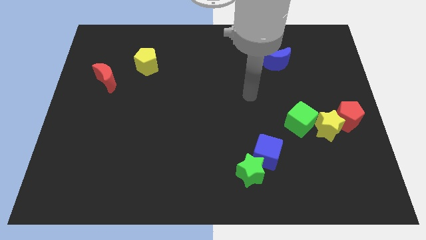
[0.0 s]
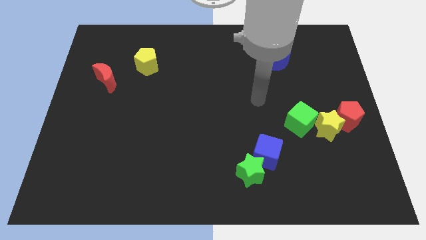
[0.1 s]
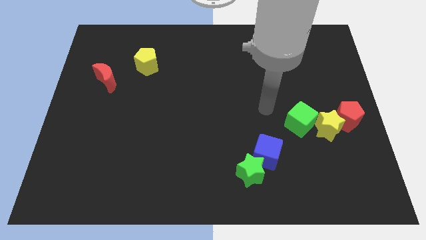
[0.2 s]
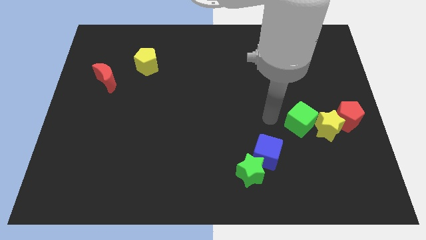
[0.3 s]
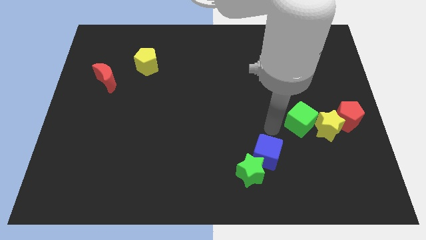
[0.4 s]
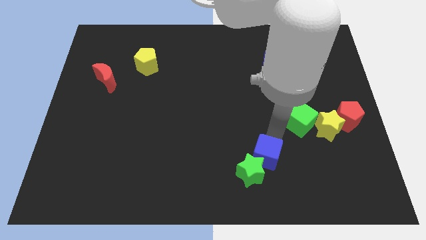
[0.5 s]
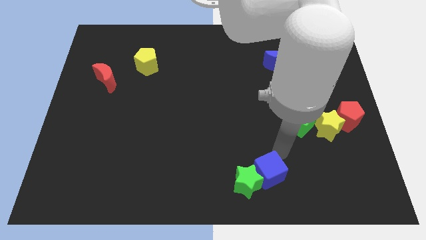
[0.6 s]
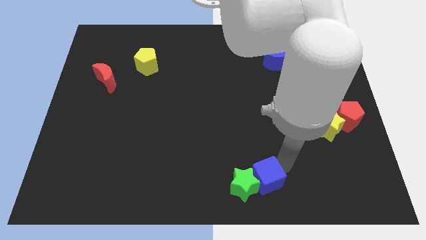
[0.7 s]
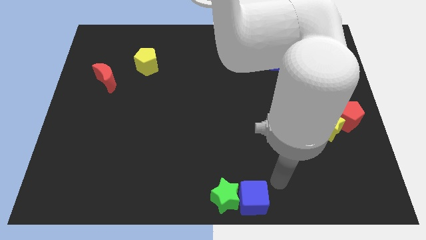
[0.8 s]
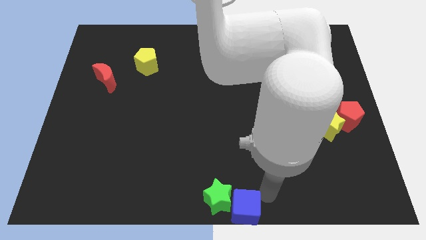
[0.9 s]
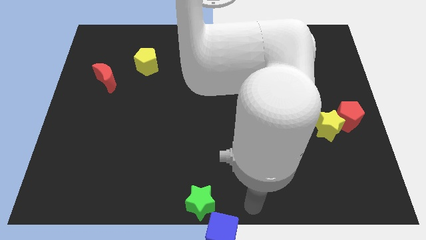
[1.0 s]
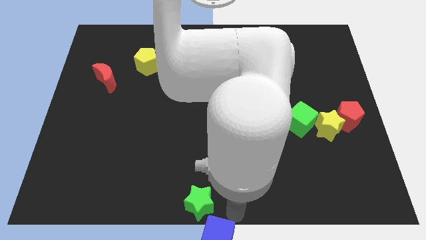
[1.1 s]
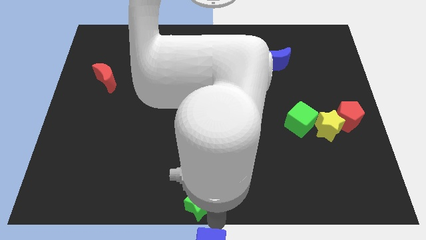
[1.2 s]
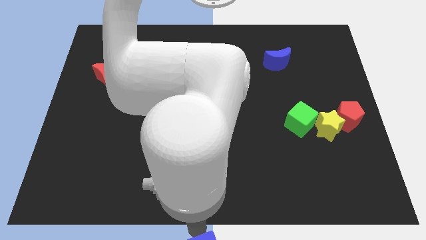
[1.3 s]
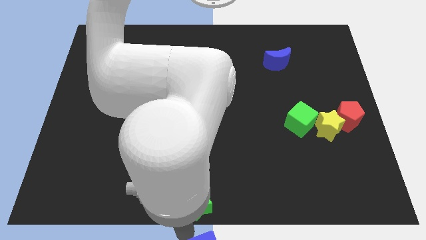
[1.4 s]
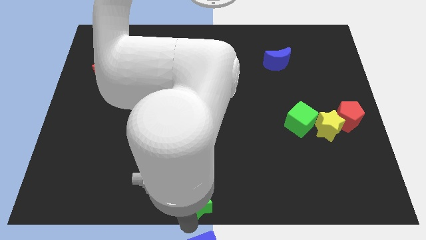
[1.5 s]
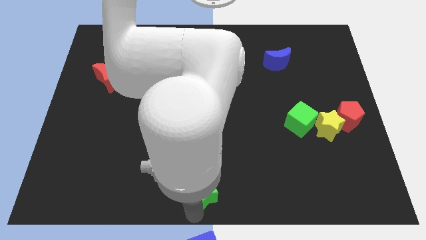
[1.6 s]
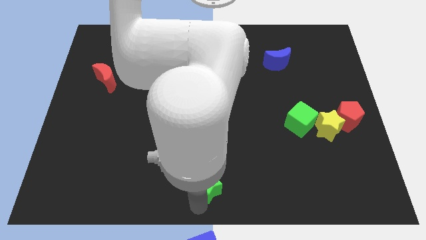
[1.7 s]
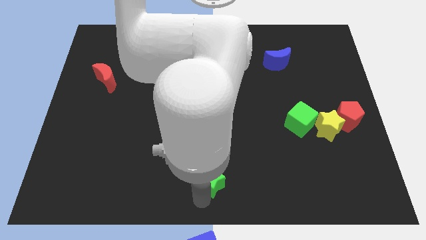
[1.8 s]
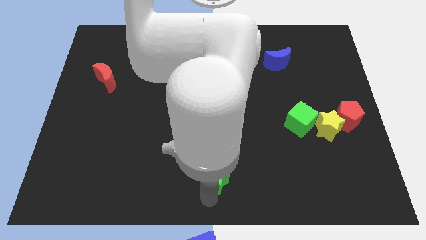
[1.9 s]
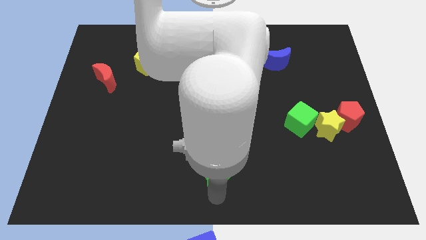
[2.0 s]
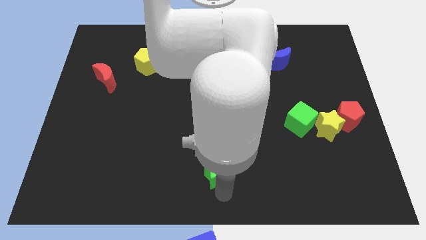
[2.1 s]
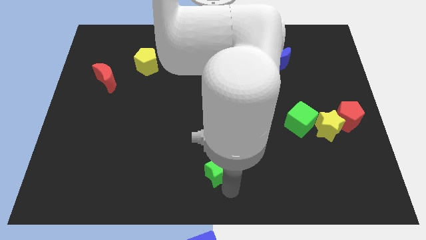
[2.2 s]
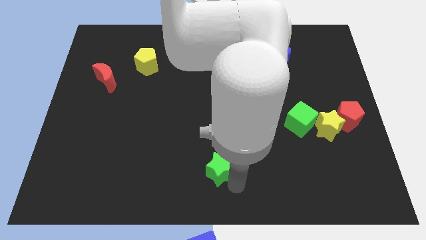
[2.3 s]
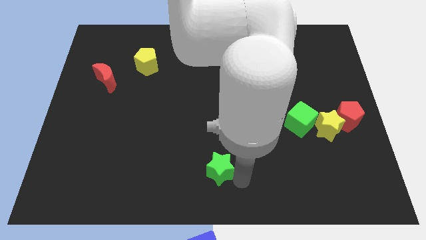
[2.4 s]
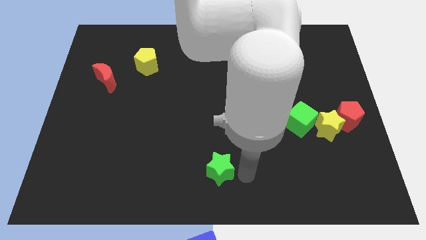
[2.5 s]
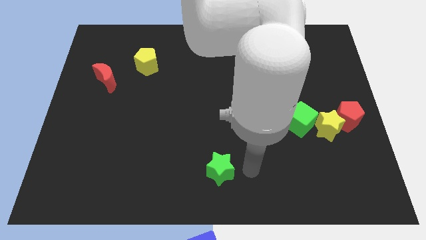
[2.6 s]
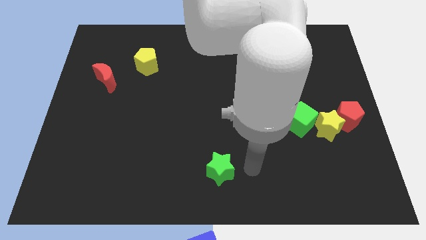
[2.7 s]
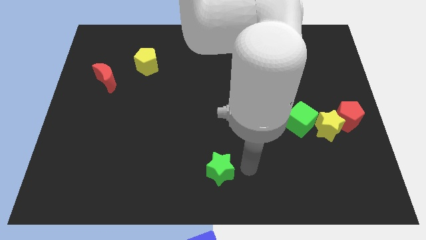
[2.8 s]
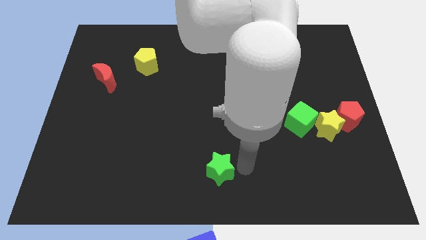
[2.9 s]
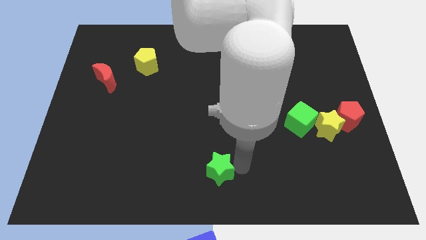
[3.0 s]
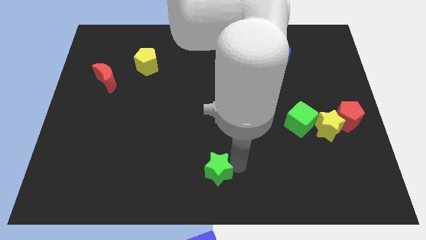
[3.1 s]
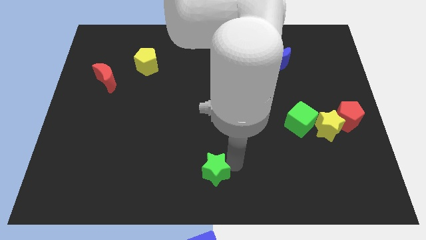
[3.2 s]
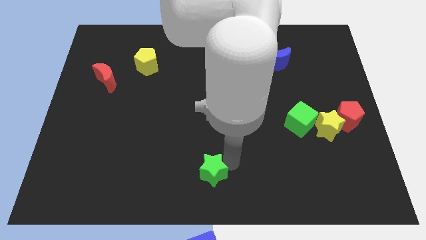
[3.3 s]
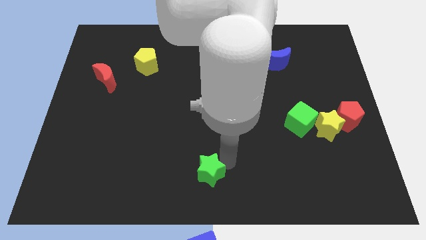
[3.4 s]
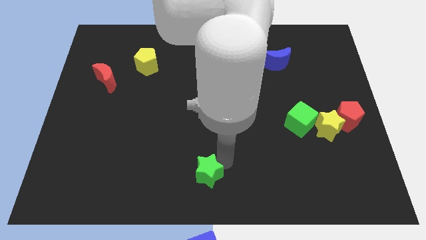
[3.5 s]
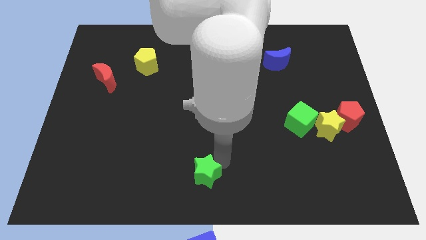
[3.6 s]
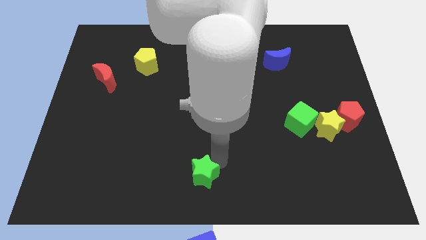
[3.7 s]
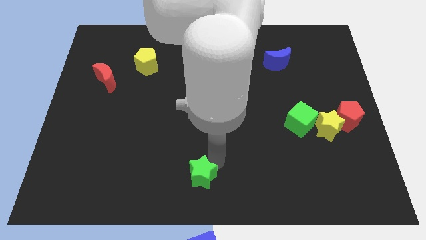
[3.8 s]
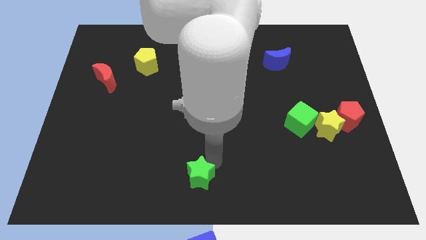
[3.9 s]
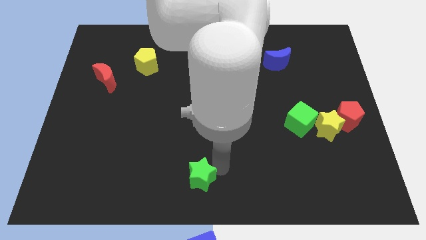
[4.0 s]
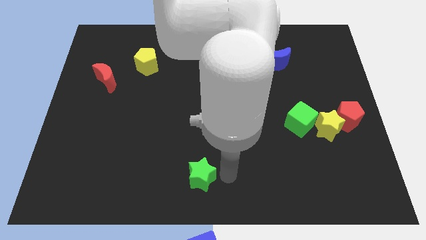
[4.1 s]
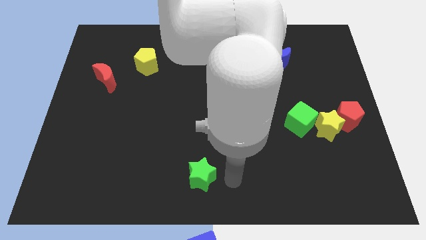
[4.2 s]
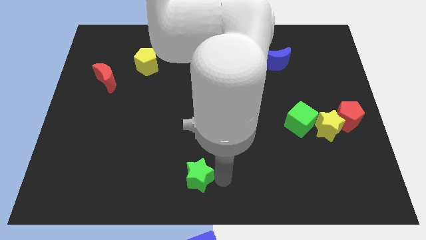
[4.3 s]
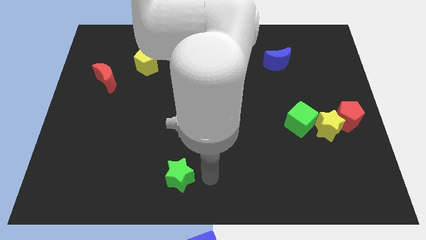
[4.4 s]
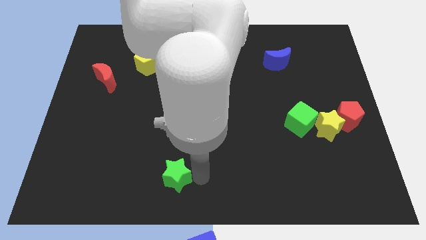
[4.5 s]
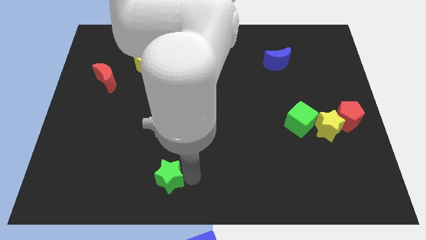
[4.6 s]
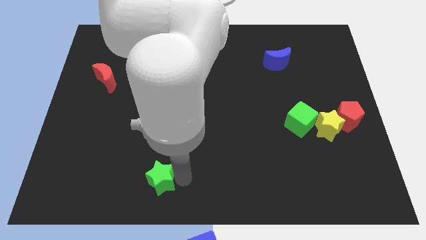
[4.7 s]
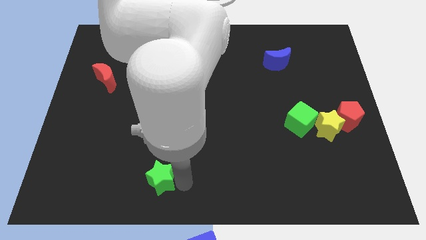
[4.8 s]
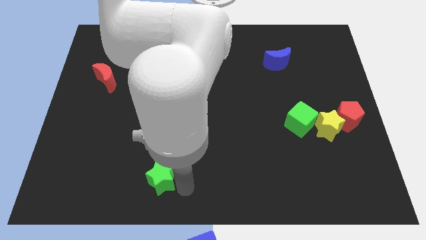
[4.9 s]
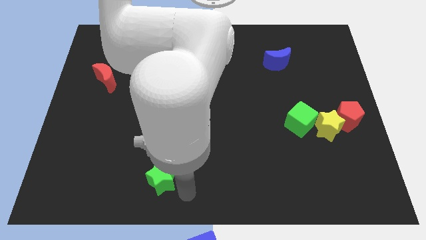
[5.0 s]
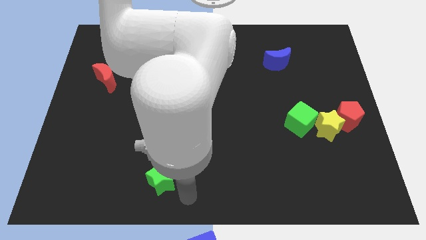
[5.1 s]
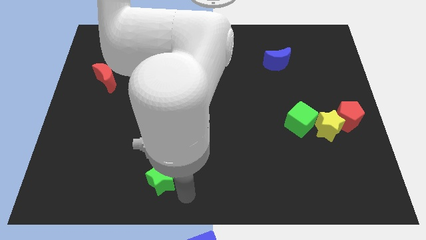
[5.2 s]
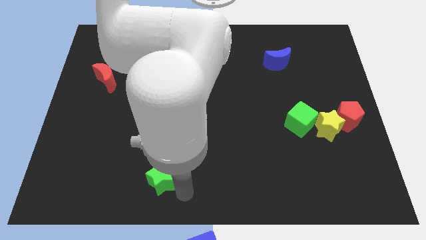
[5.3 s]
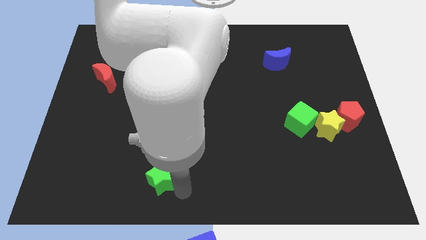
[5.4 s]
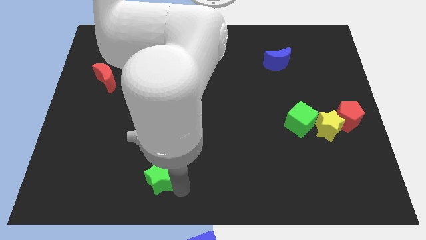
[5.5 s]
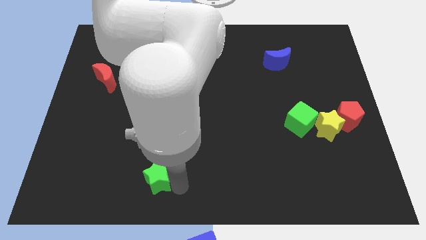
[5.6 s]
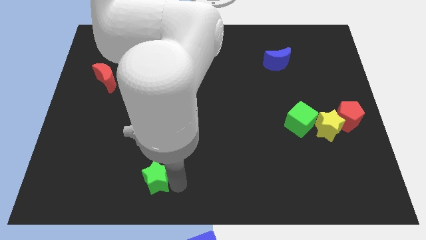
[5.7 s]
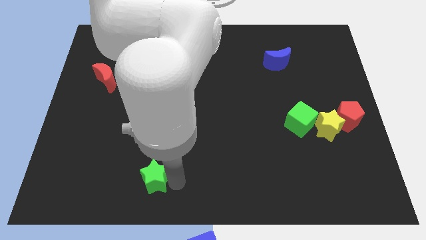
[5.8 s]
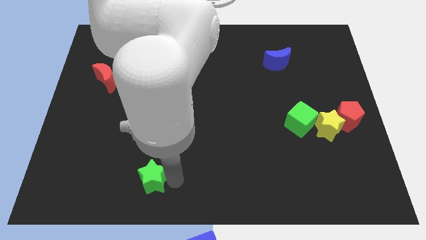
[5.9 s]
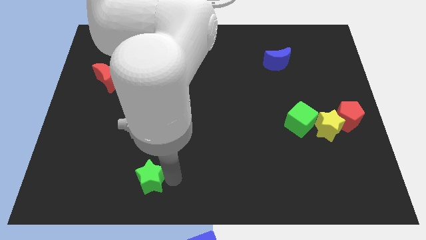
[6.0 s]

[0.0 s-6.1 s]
slide the green star left

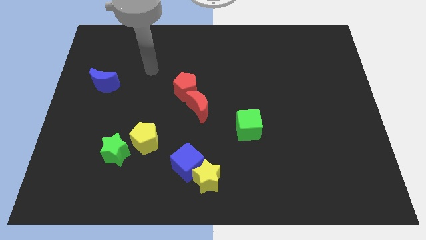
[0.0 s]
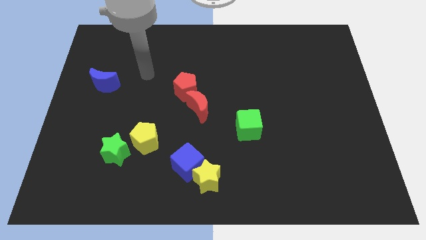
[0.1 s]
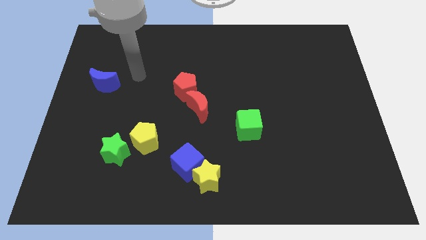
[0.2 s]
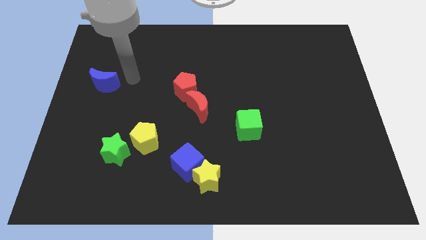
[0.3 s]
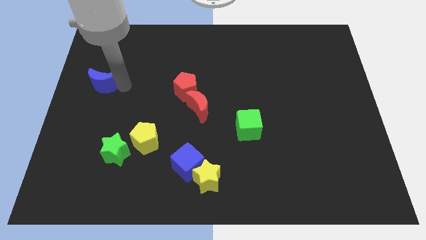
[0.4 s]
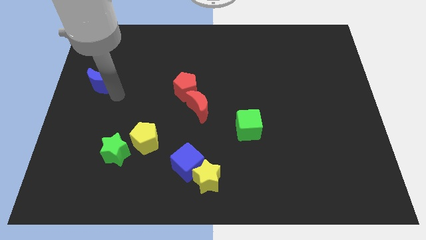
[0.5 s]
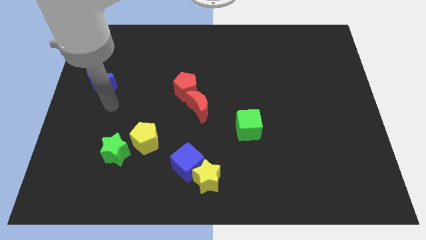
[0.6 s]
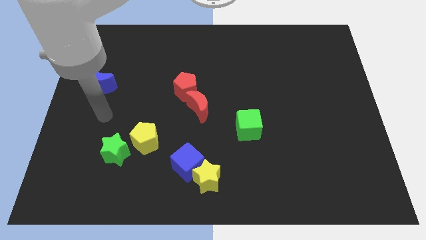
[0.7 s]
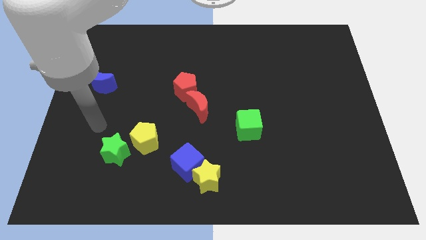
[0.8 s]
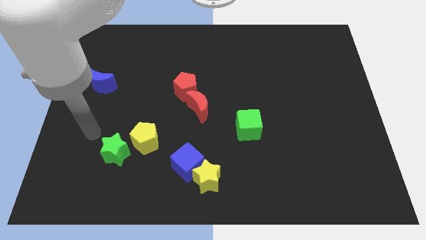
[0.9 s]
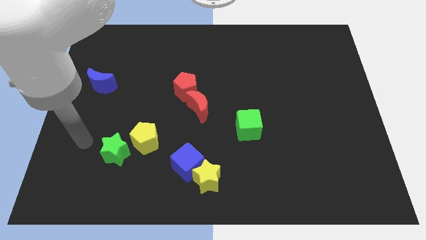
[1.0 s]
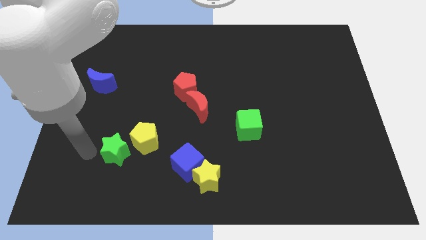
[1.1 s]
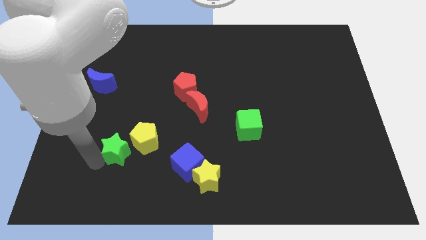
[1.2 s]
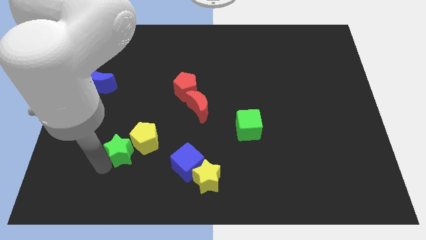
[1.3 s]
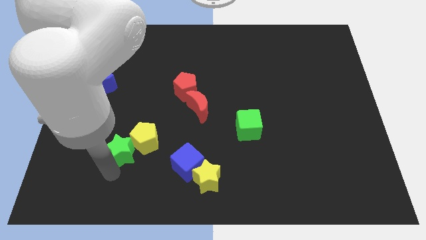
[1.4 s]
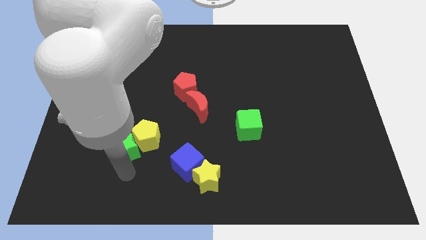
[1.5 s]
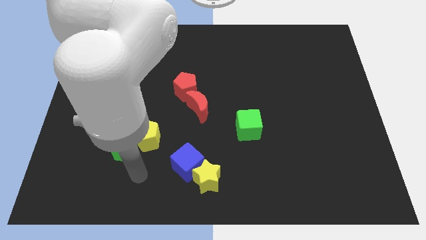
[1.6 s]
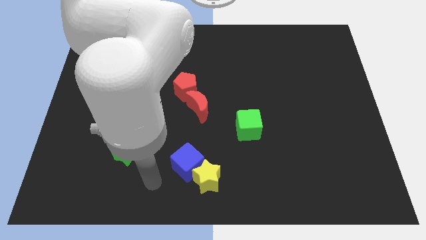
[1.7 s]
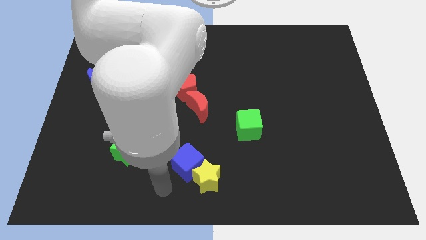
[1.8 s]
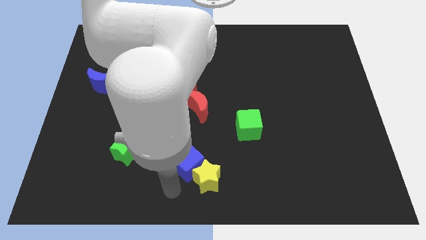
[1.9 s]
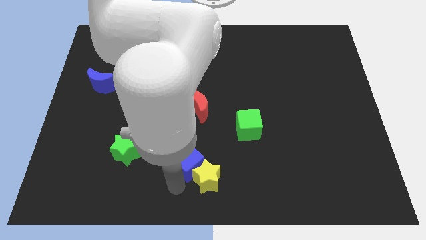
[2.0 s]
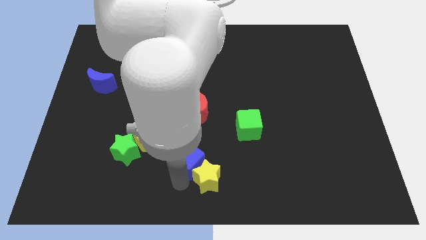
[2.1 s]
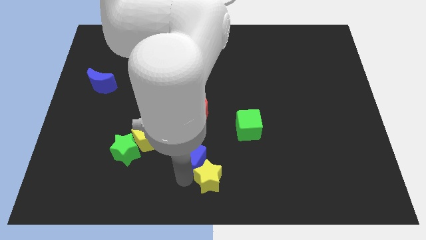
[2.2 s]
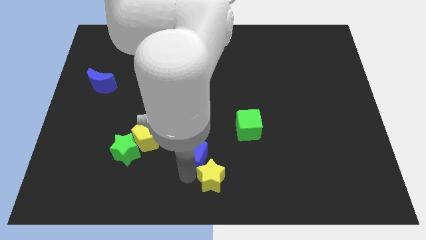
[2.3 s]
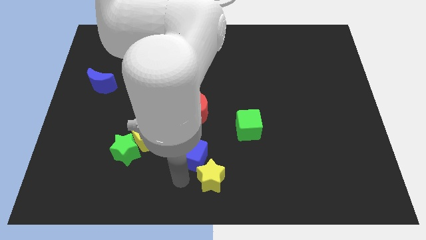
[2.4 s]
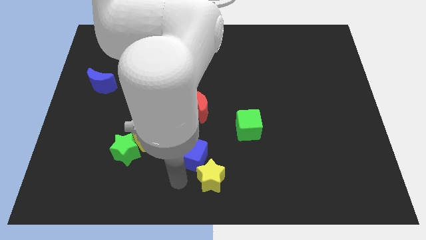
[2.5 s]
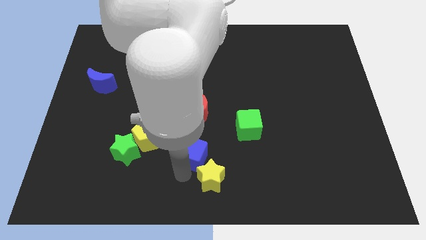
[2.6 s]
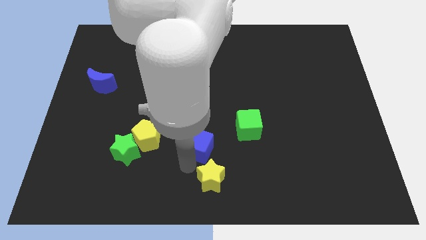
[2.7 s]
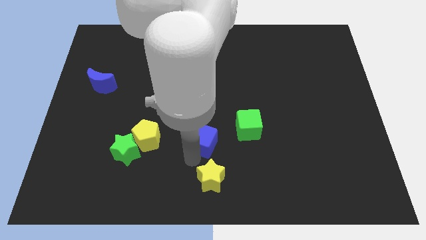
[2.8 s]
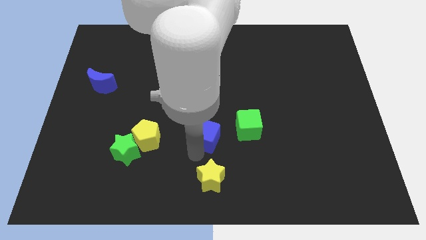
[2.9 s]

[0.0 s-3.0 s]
move the blue cube a little bit upwards and to the right diagonally
